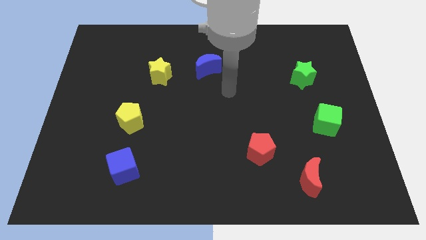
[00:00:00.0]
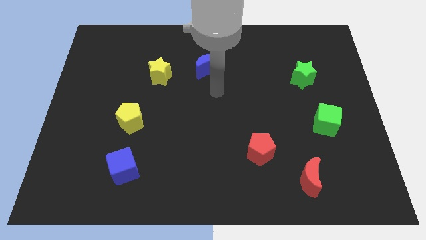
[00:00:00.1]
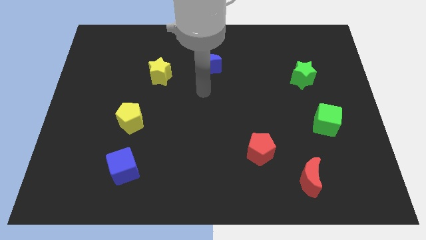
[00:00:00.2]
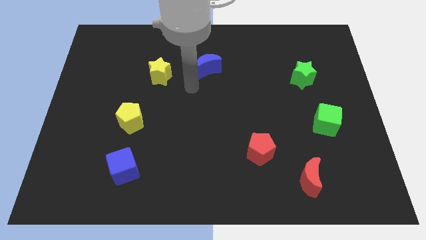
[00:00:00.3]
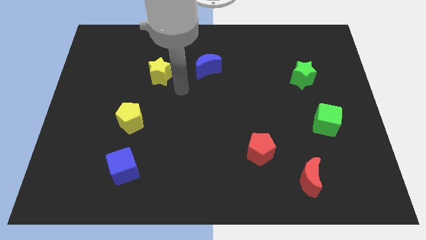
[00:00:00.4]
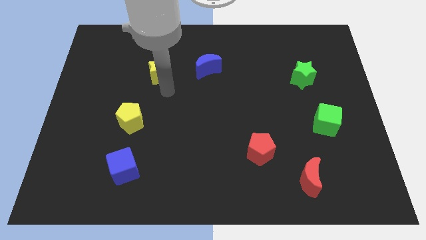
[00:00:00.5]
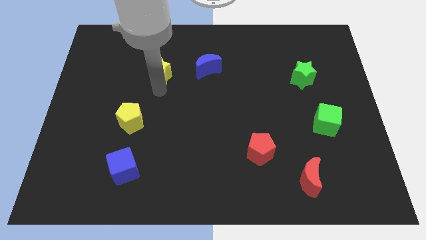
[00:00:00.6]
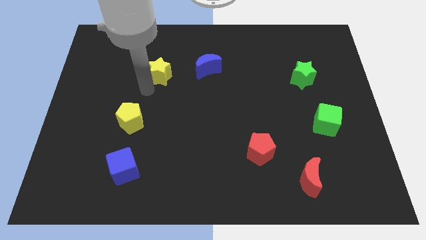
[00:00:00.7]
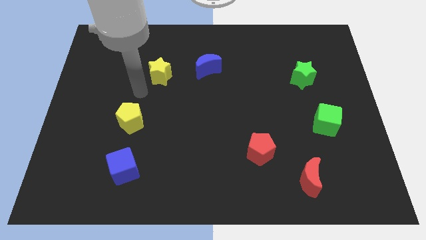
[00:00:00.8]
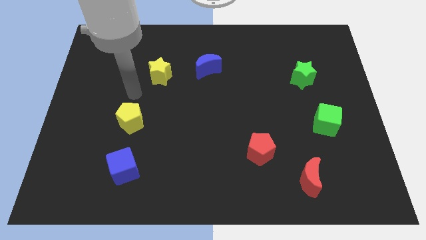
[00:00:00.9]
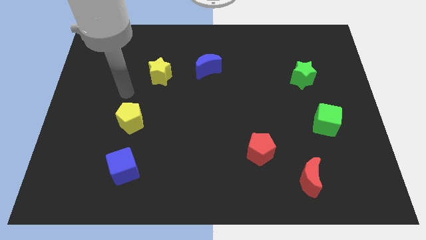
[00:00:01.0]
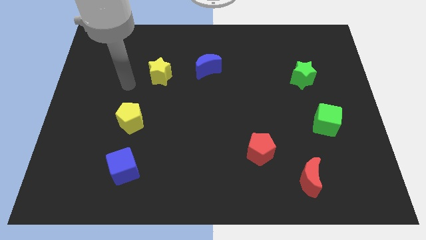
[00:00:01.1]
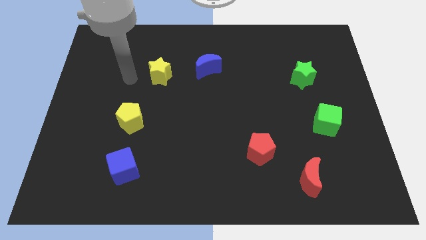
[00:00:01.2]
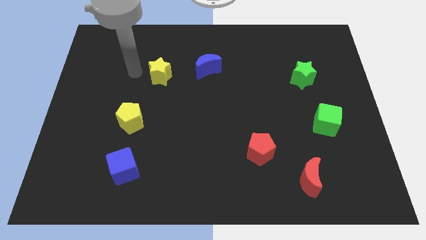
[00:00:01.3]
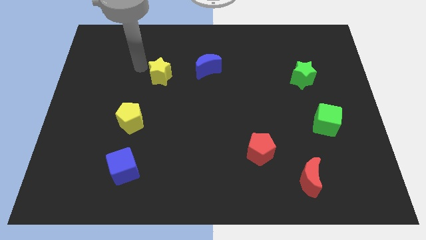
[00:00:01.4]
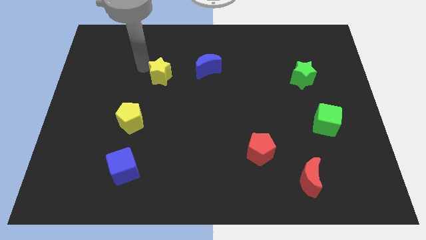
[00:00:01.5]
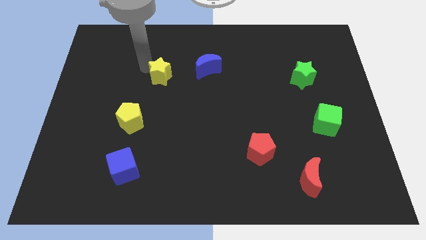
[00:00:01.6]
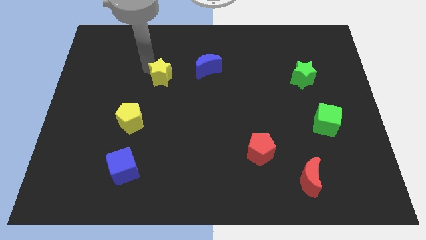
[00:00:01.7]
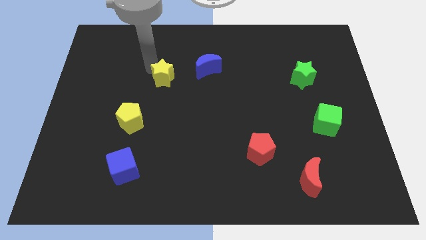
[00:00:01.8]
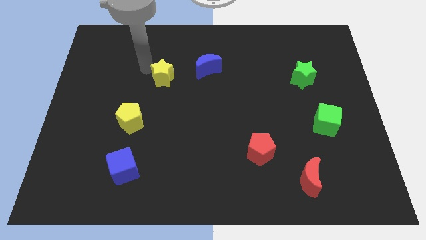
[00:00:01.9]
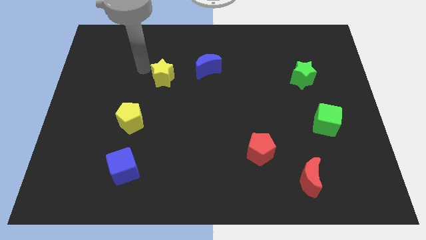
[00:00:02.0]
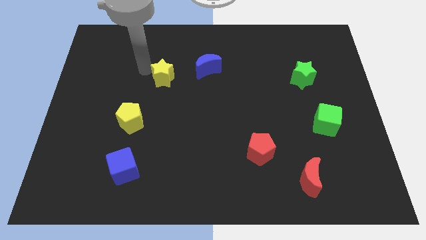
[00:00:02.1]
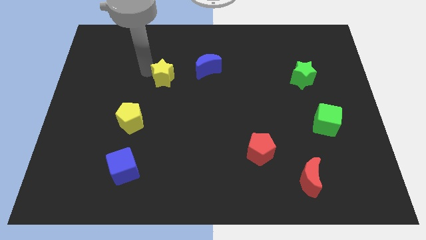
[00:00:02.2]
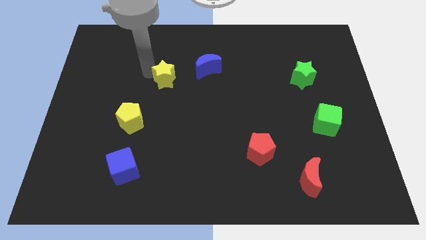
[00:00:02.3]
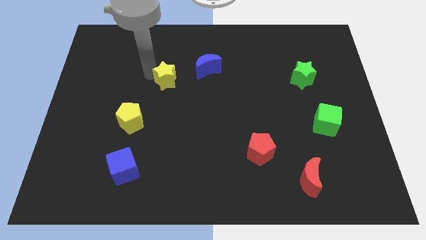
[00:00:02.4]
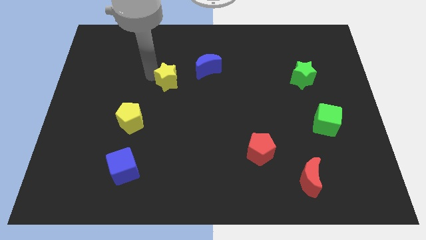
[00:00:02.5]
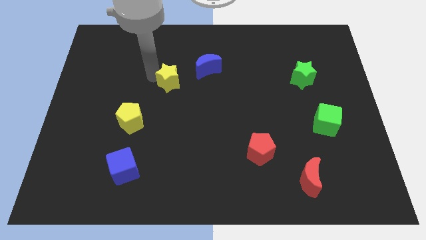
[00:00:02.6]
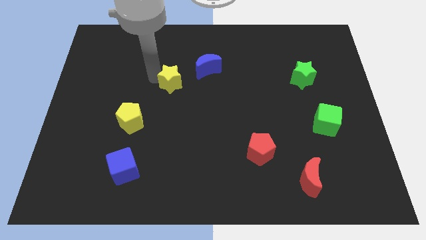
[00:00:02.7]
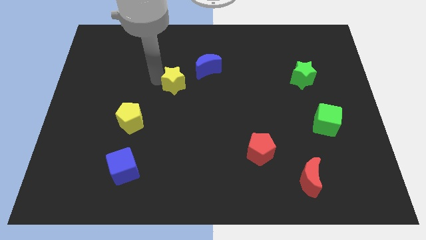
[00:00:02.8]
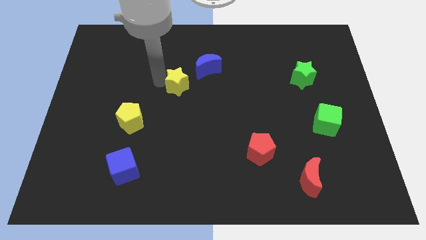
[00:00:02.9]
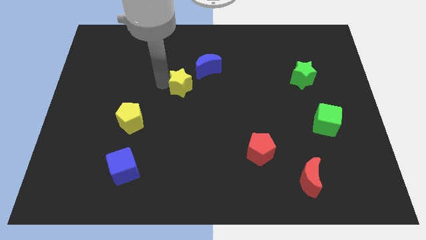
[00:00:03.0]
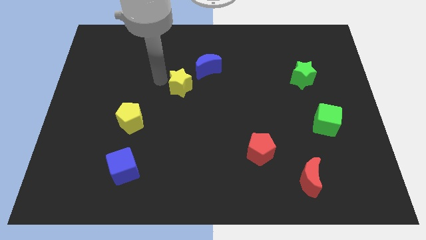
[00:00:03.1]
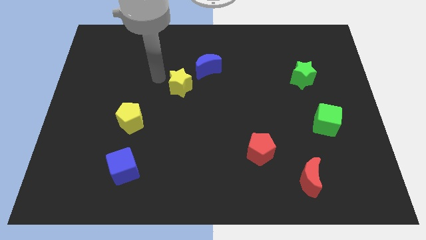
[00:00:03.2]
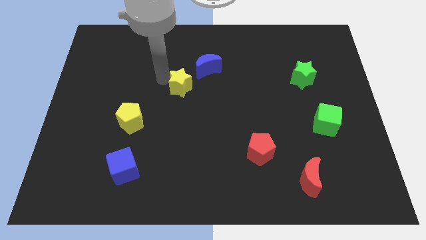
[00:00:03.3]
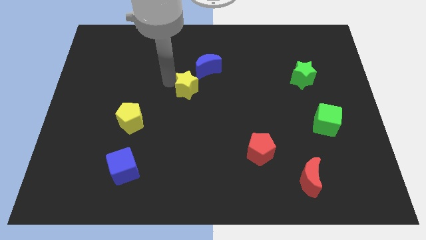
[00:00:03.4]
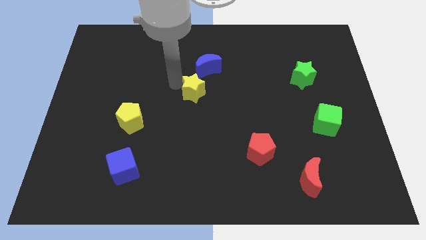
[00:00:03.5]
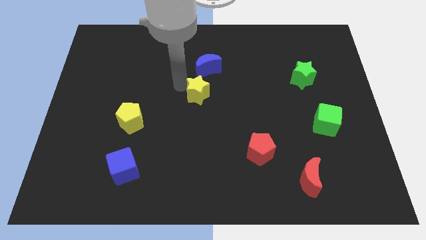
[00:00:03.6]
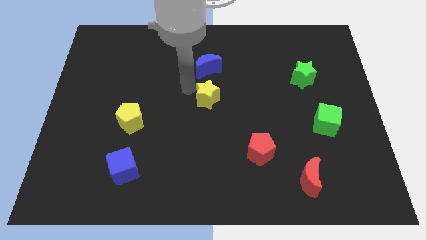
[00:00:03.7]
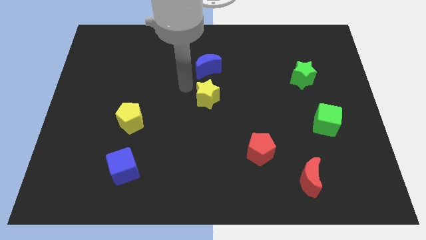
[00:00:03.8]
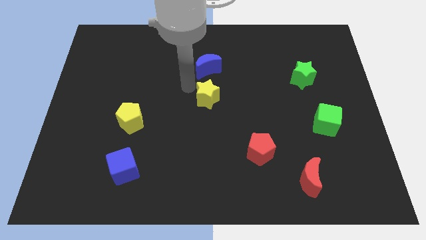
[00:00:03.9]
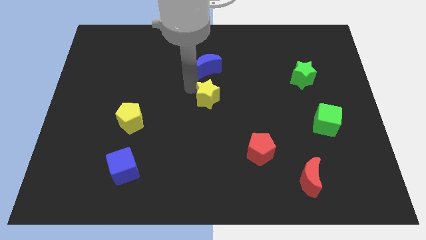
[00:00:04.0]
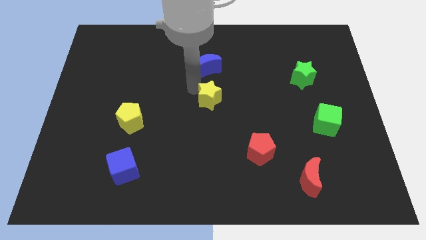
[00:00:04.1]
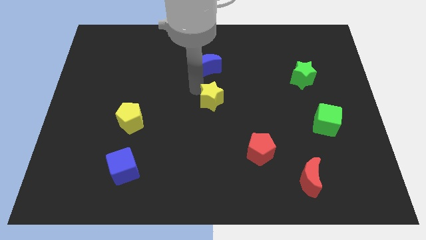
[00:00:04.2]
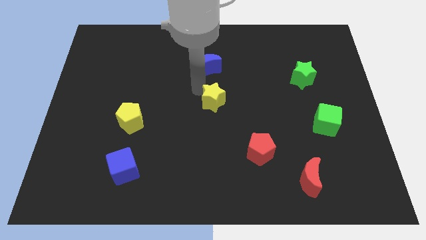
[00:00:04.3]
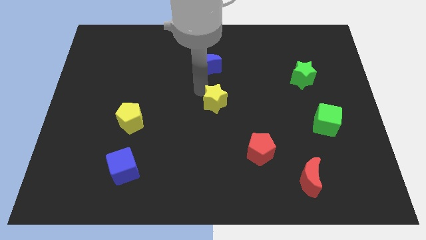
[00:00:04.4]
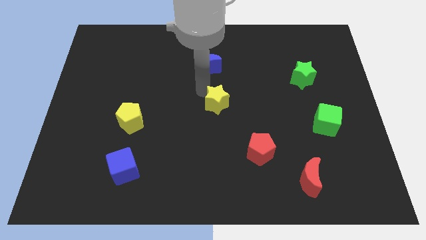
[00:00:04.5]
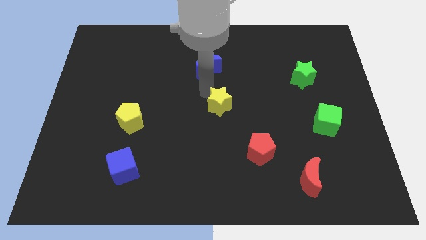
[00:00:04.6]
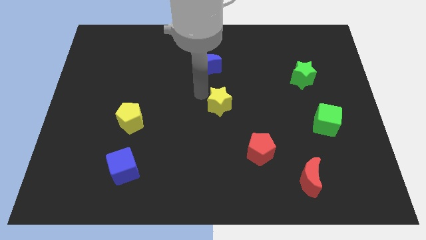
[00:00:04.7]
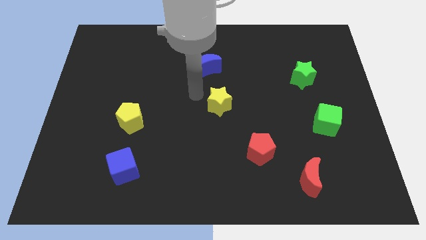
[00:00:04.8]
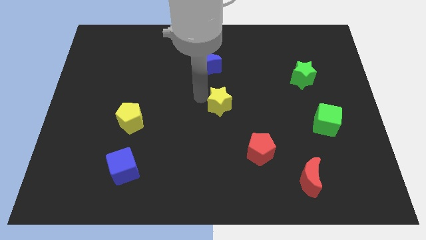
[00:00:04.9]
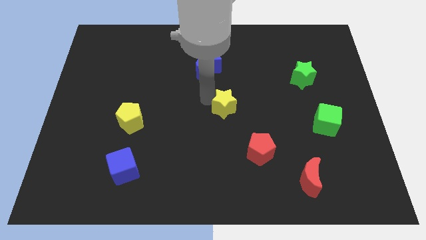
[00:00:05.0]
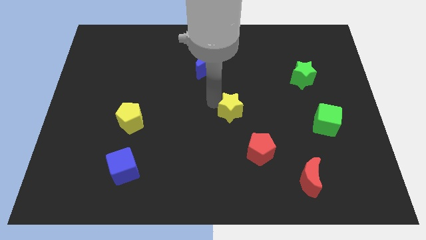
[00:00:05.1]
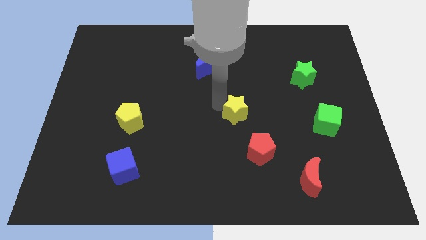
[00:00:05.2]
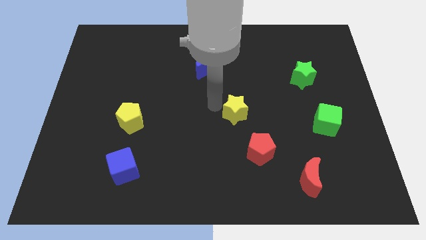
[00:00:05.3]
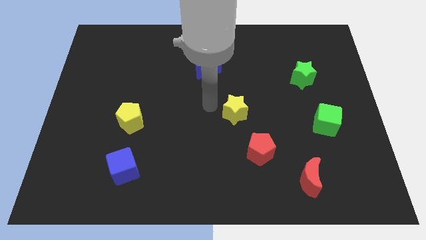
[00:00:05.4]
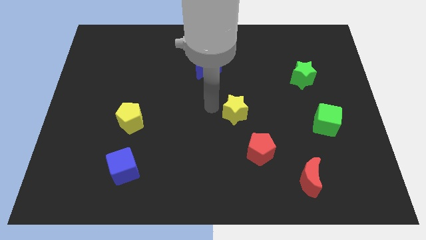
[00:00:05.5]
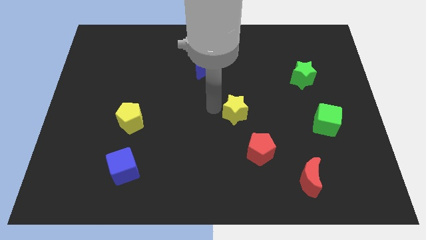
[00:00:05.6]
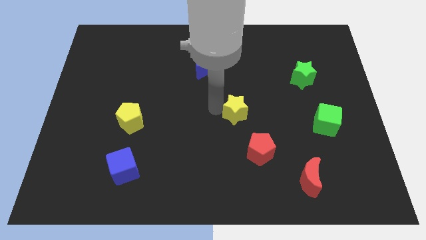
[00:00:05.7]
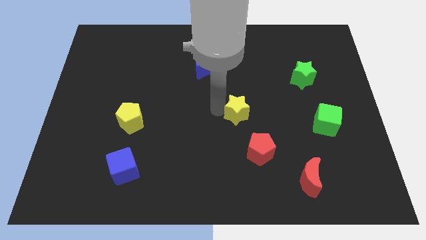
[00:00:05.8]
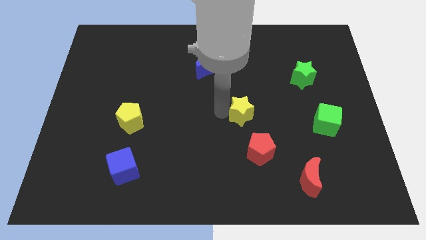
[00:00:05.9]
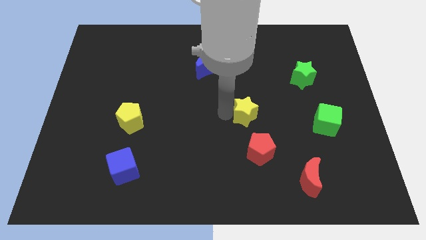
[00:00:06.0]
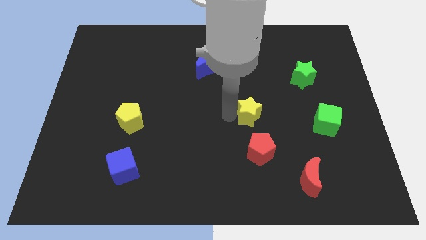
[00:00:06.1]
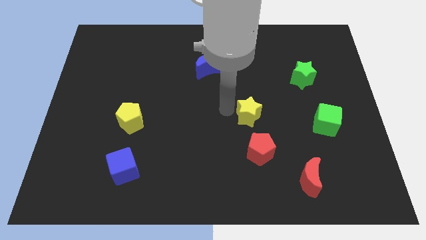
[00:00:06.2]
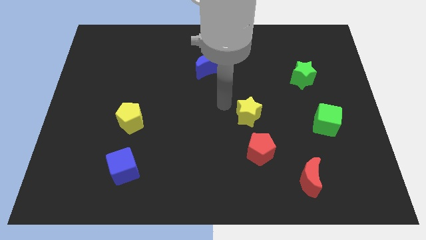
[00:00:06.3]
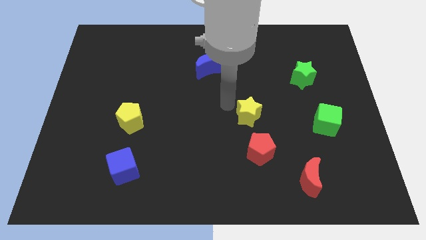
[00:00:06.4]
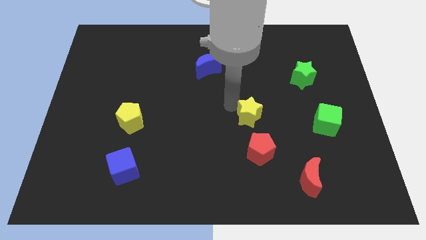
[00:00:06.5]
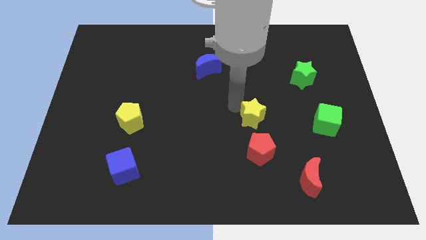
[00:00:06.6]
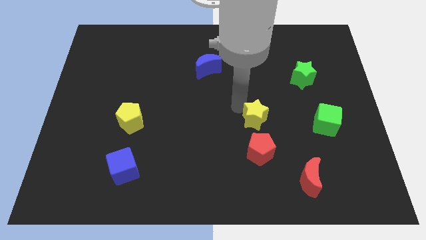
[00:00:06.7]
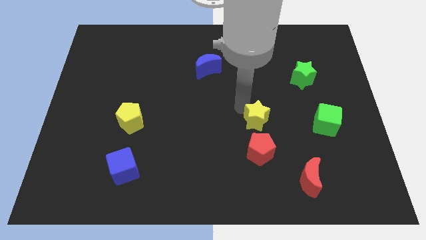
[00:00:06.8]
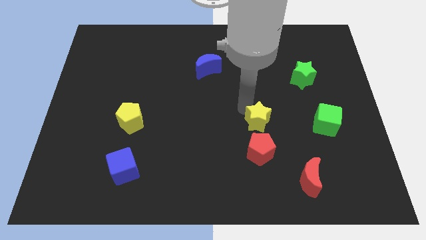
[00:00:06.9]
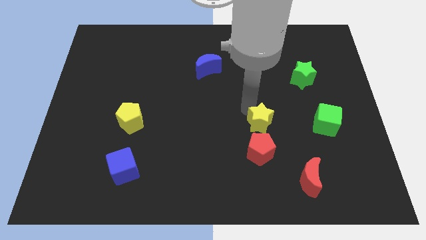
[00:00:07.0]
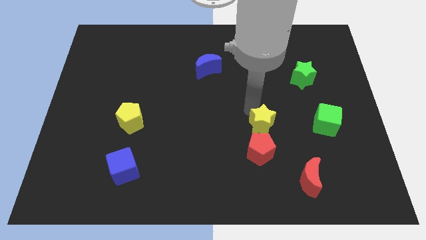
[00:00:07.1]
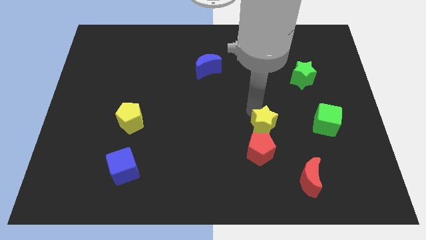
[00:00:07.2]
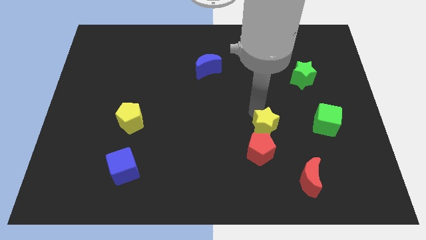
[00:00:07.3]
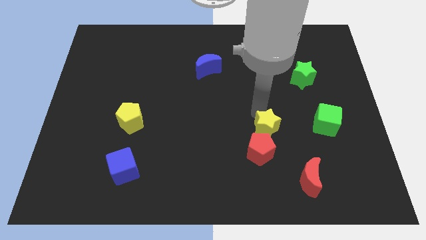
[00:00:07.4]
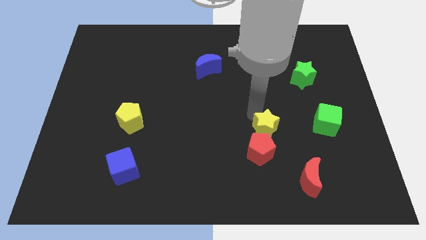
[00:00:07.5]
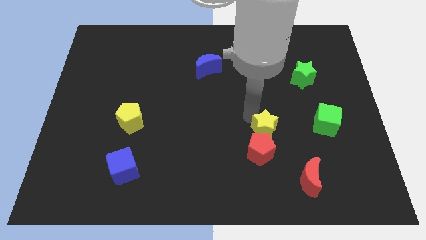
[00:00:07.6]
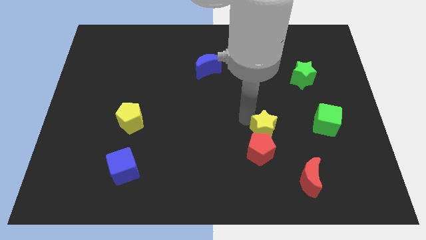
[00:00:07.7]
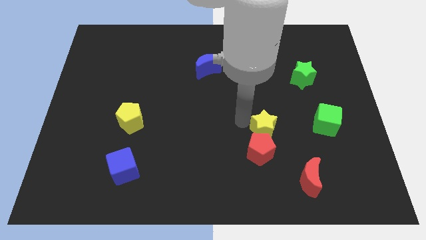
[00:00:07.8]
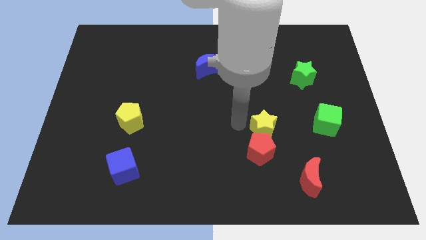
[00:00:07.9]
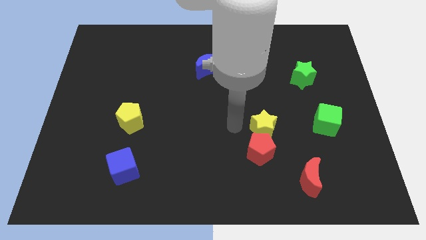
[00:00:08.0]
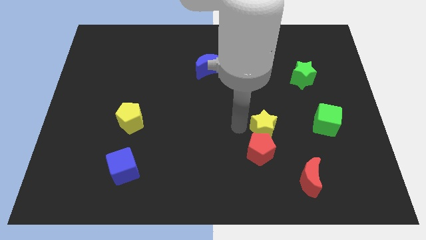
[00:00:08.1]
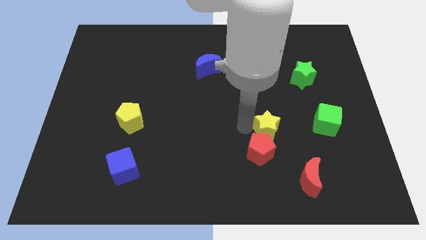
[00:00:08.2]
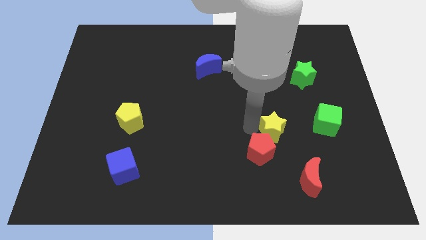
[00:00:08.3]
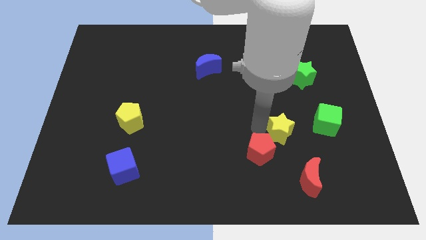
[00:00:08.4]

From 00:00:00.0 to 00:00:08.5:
push the yellow star above the red moon
